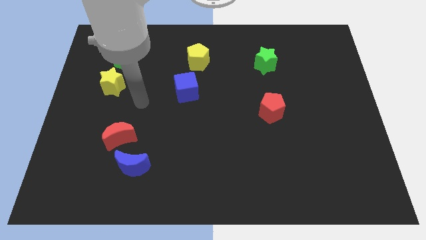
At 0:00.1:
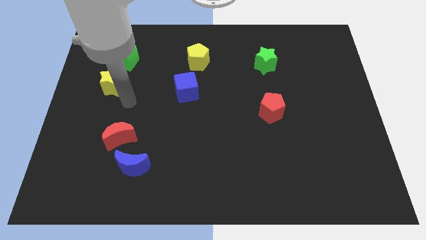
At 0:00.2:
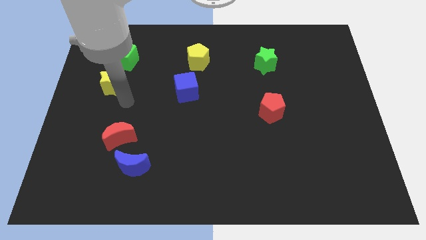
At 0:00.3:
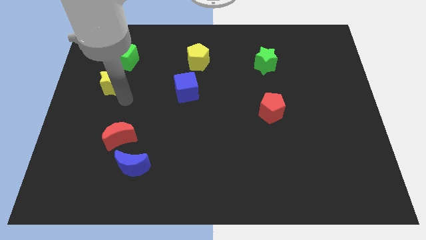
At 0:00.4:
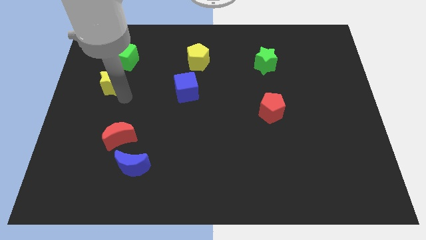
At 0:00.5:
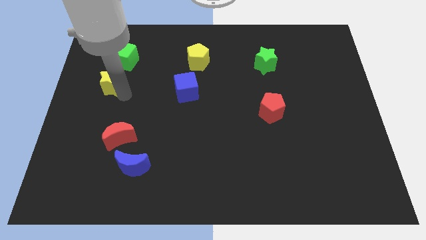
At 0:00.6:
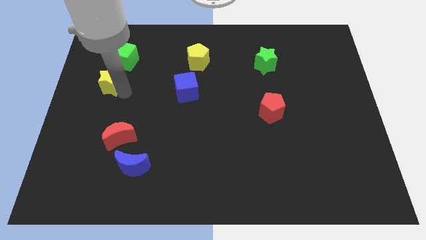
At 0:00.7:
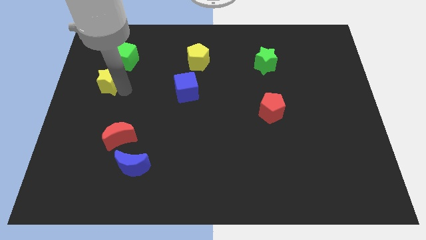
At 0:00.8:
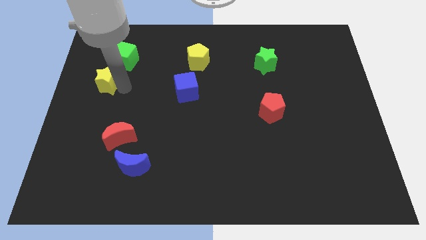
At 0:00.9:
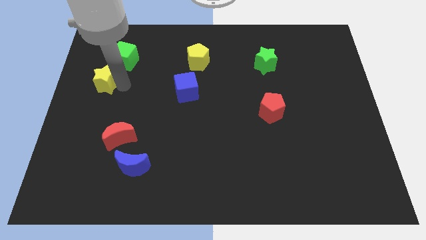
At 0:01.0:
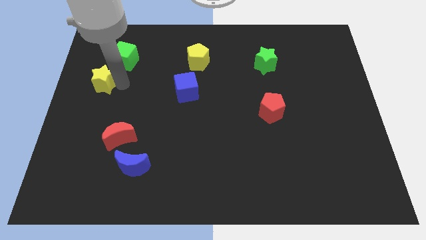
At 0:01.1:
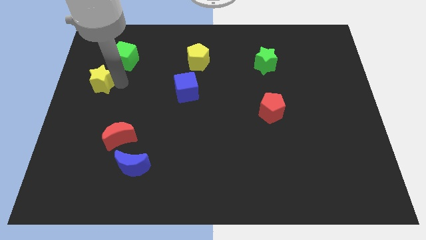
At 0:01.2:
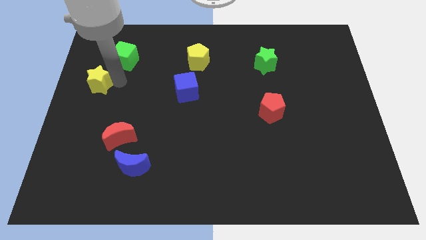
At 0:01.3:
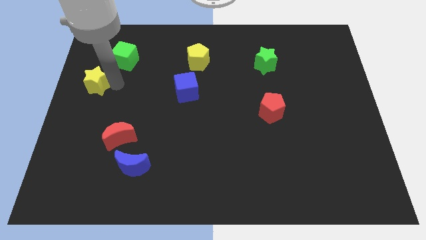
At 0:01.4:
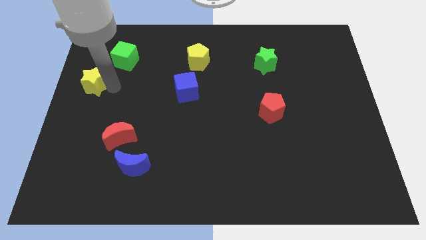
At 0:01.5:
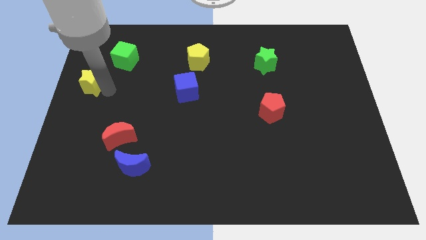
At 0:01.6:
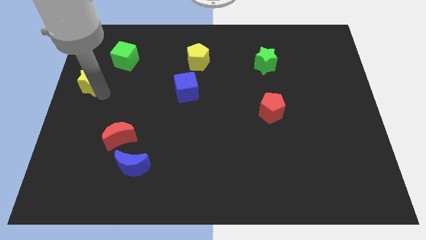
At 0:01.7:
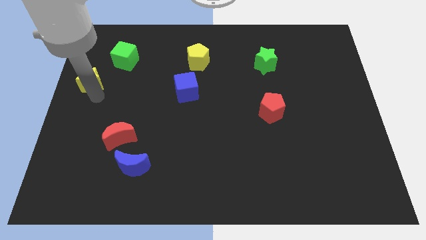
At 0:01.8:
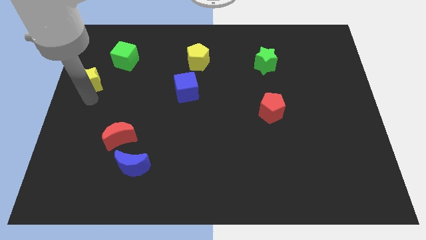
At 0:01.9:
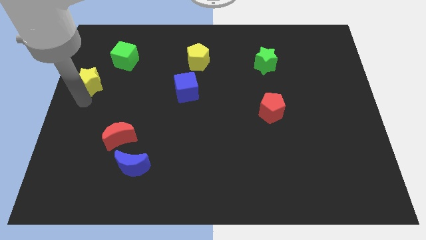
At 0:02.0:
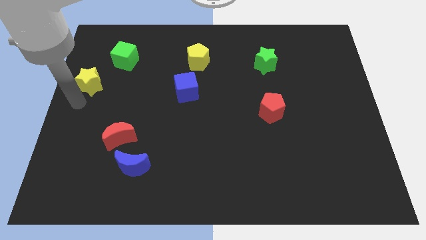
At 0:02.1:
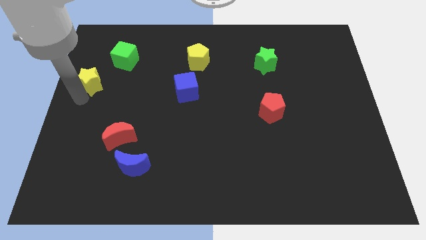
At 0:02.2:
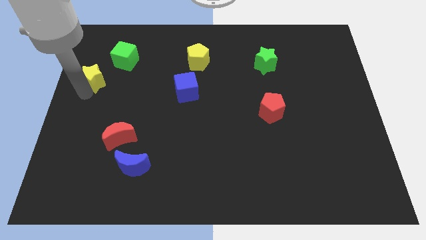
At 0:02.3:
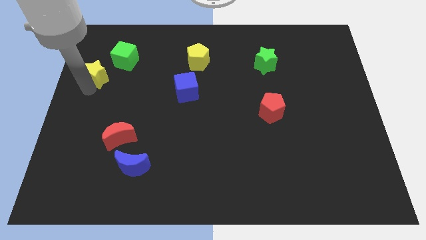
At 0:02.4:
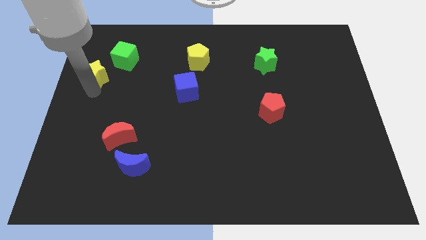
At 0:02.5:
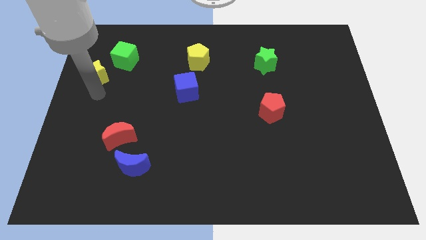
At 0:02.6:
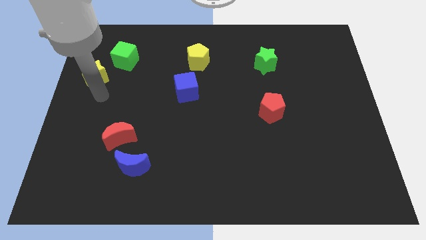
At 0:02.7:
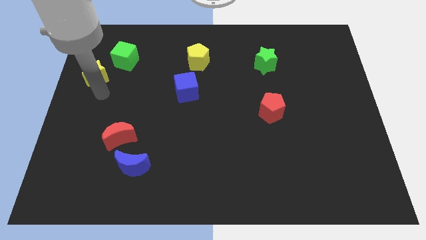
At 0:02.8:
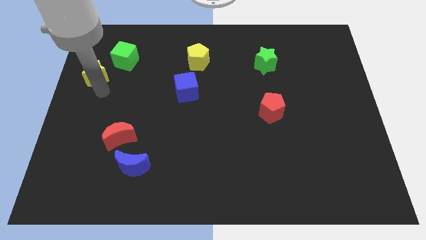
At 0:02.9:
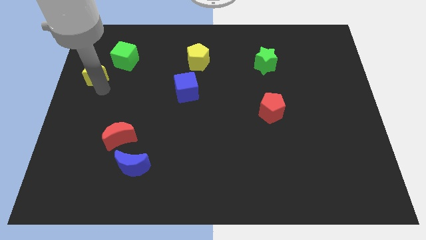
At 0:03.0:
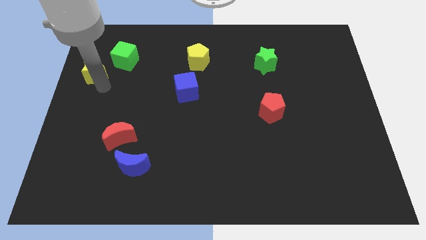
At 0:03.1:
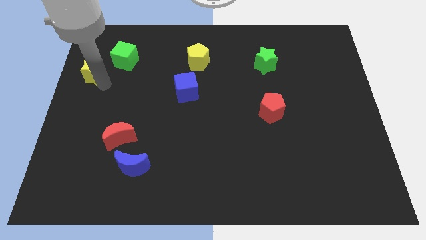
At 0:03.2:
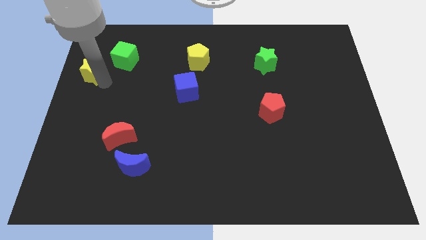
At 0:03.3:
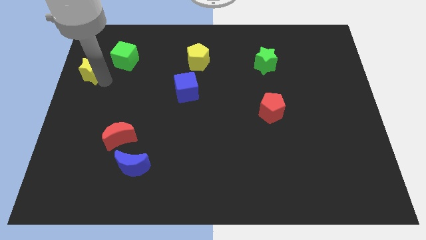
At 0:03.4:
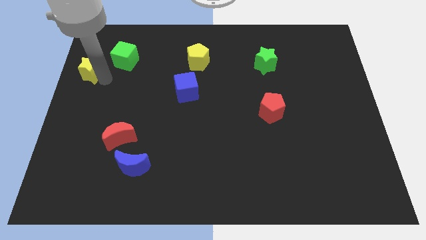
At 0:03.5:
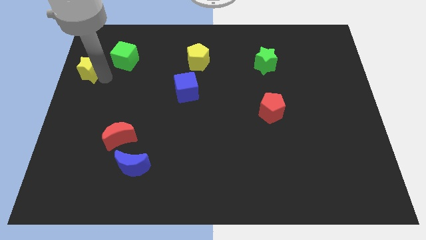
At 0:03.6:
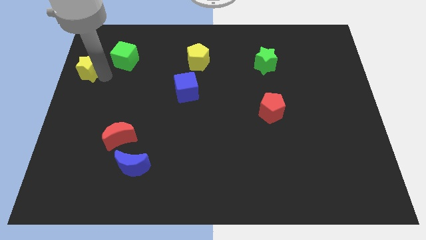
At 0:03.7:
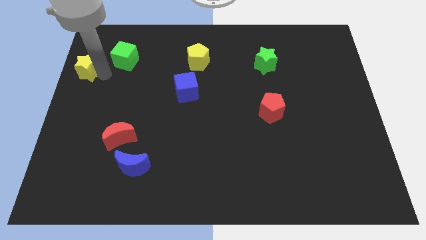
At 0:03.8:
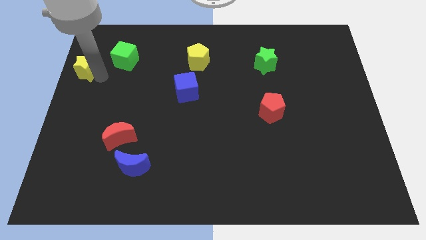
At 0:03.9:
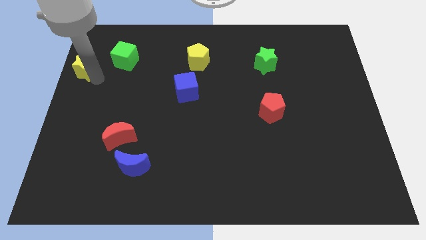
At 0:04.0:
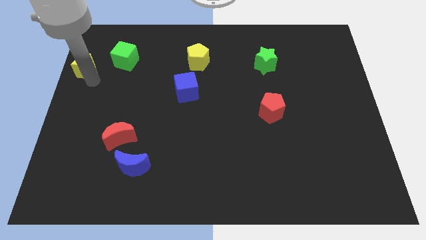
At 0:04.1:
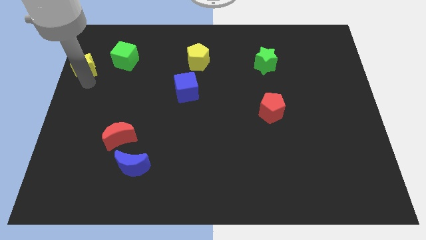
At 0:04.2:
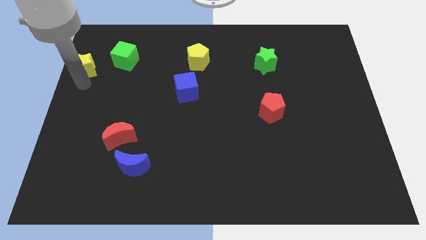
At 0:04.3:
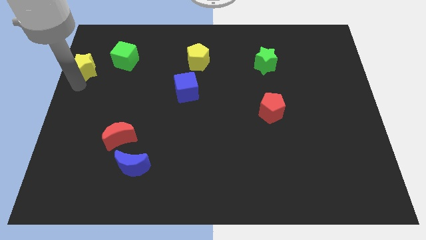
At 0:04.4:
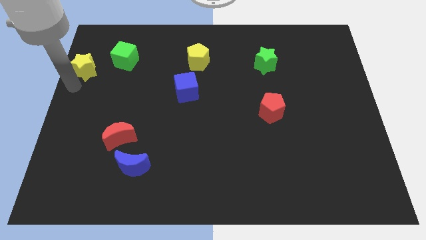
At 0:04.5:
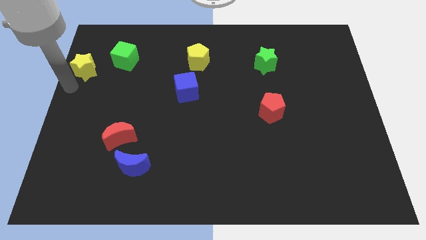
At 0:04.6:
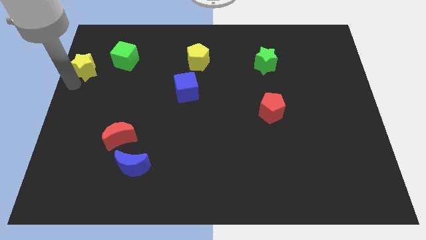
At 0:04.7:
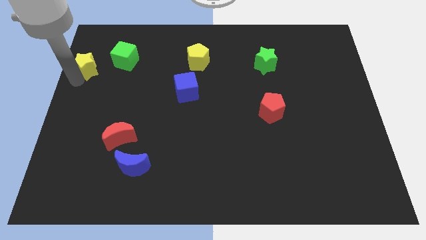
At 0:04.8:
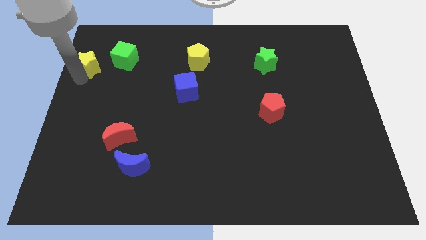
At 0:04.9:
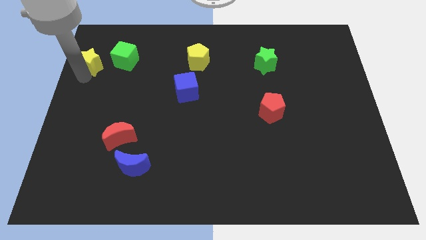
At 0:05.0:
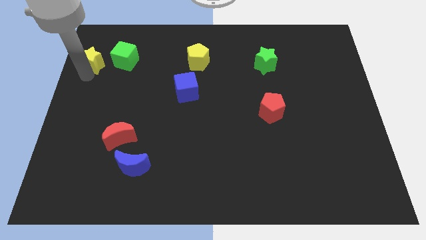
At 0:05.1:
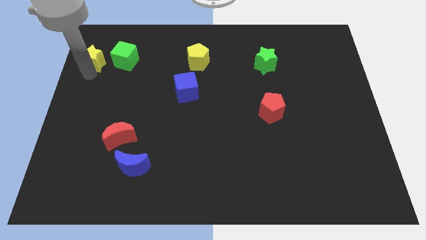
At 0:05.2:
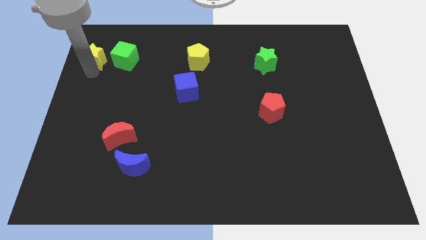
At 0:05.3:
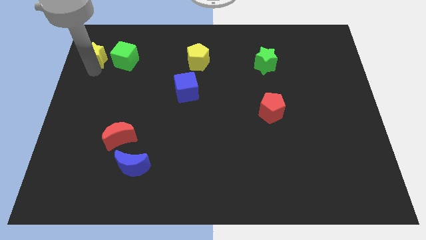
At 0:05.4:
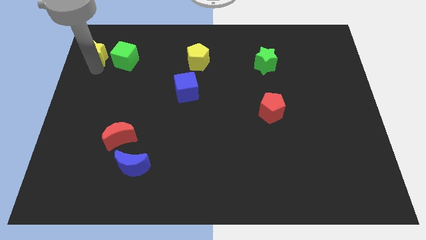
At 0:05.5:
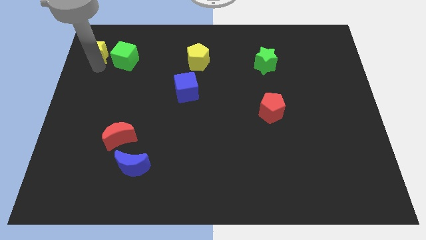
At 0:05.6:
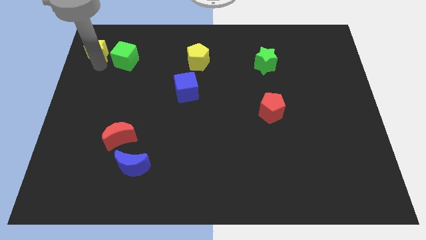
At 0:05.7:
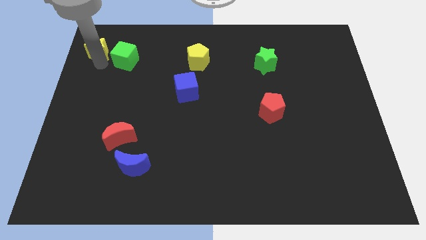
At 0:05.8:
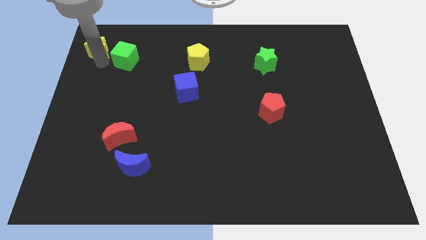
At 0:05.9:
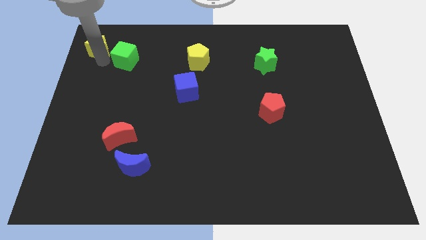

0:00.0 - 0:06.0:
push the yellow star to the top left of the board

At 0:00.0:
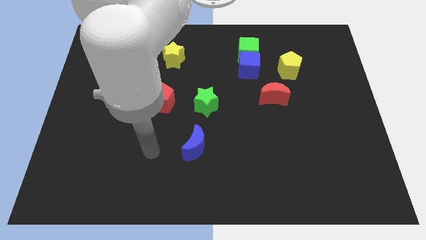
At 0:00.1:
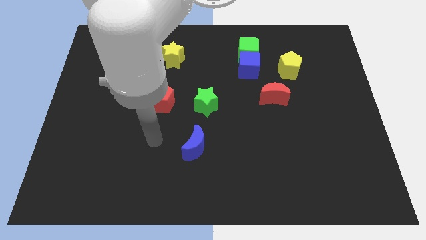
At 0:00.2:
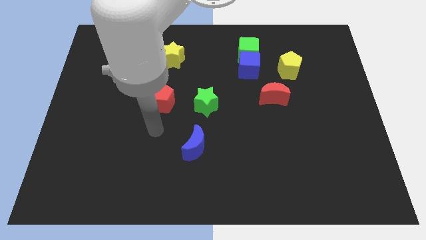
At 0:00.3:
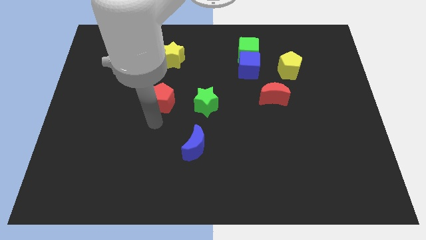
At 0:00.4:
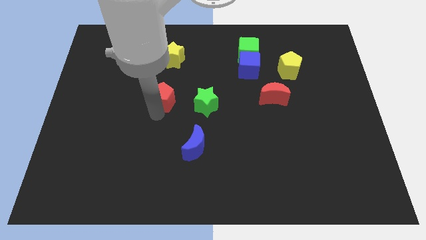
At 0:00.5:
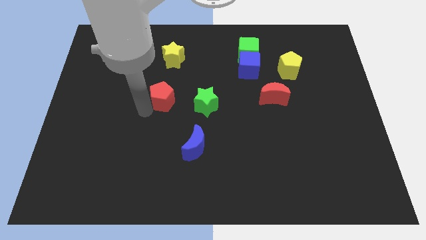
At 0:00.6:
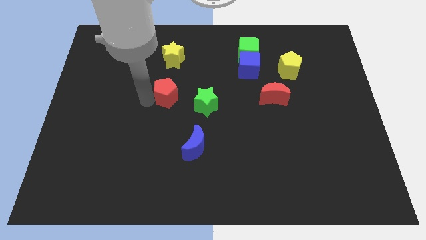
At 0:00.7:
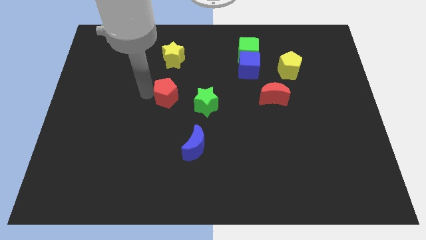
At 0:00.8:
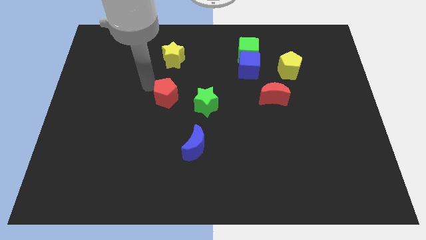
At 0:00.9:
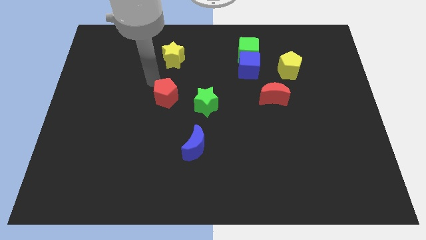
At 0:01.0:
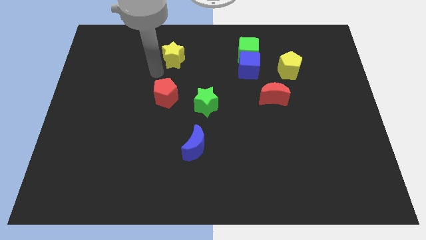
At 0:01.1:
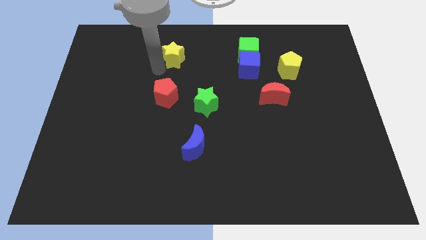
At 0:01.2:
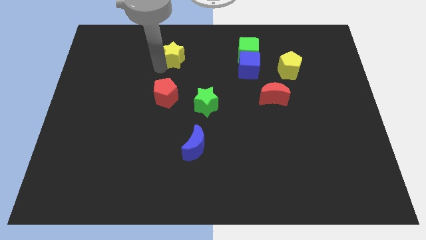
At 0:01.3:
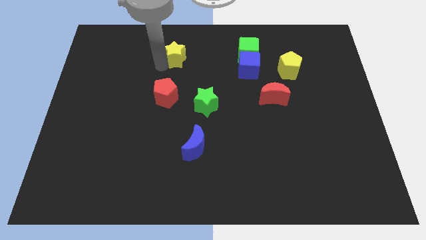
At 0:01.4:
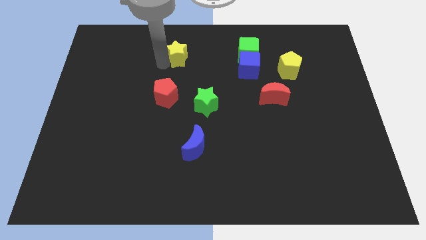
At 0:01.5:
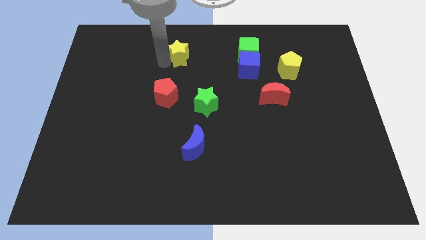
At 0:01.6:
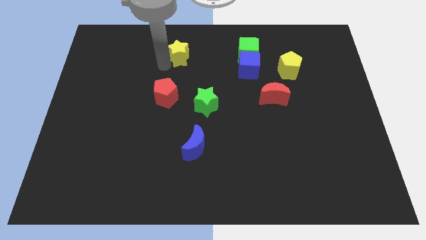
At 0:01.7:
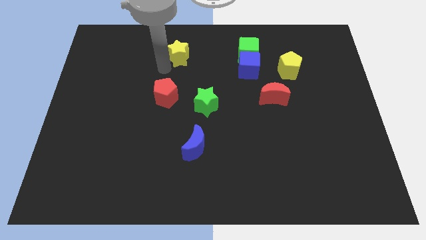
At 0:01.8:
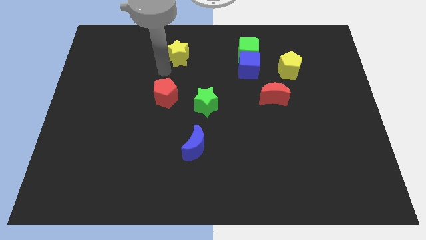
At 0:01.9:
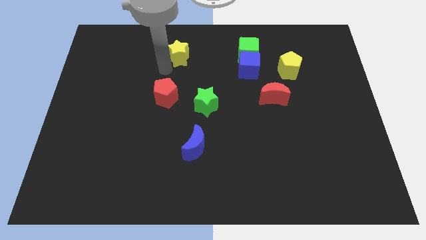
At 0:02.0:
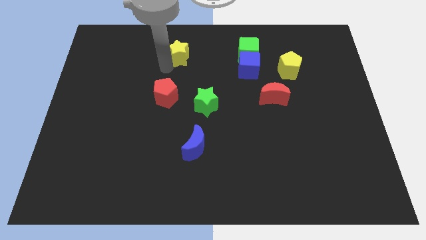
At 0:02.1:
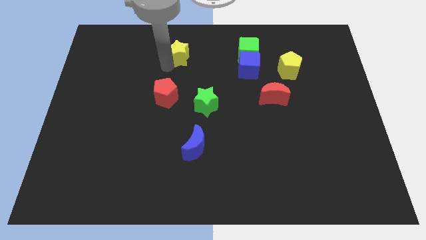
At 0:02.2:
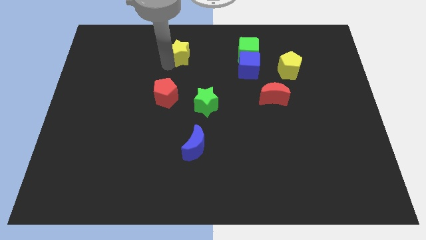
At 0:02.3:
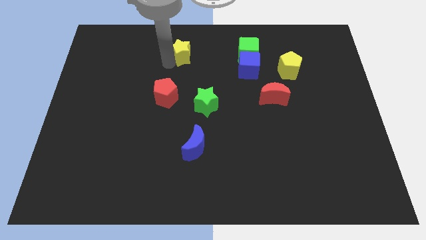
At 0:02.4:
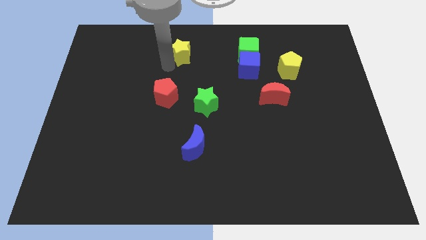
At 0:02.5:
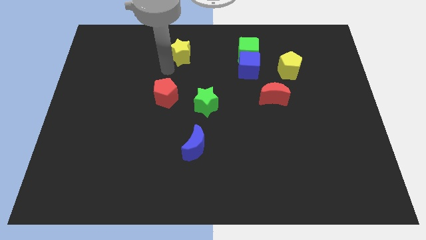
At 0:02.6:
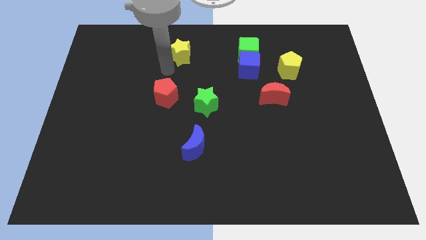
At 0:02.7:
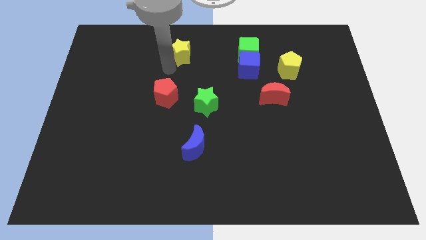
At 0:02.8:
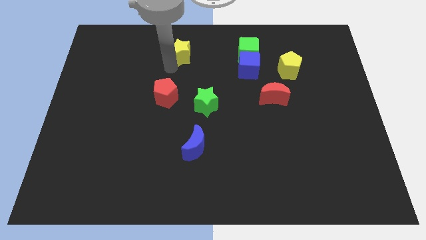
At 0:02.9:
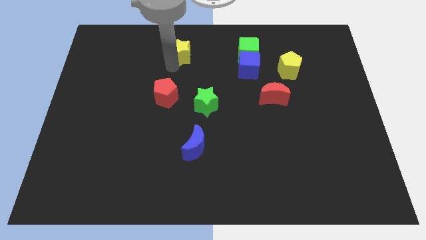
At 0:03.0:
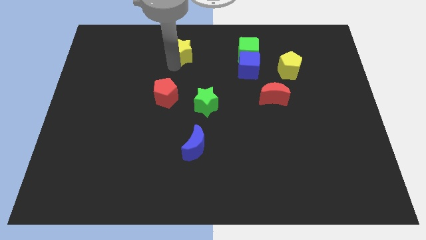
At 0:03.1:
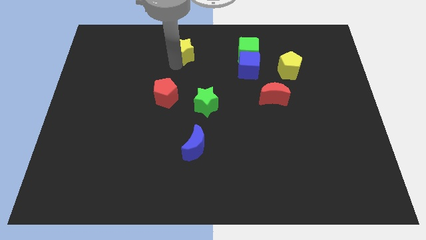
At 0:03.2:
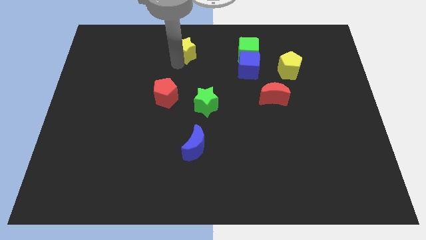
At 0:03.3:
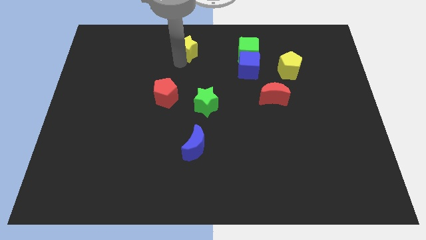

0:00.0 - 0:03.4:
put the yellow star to the top side
